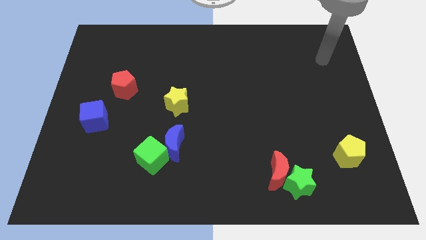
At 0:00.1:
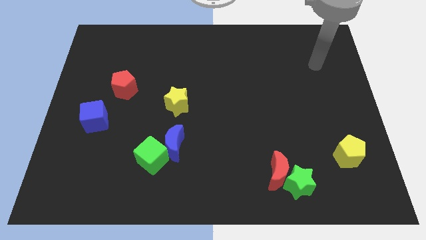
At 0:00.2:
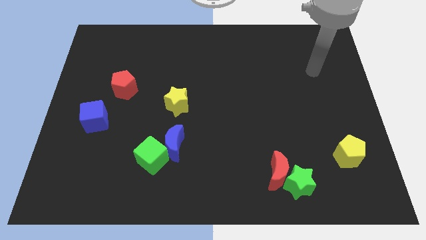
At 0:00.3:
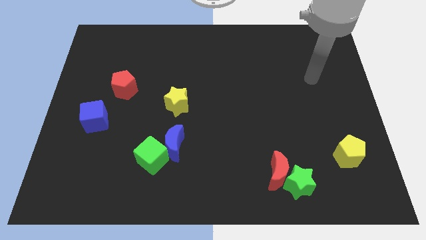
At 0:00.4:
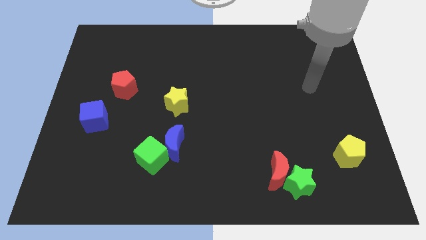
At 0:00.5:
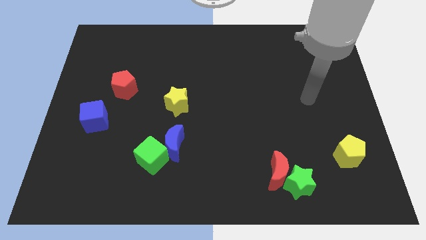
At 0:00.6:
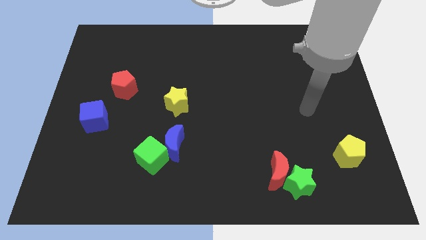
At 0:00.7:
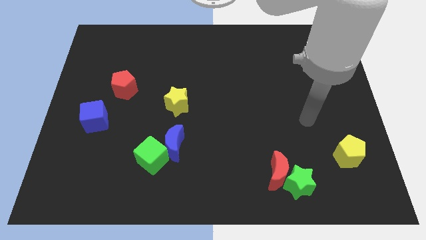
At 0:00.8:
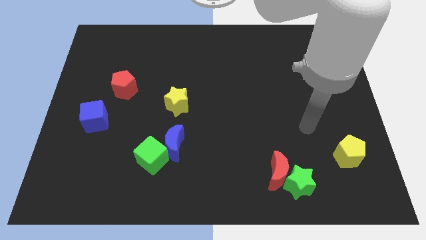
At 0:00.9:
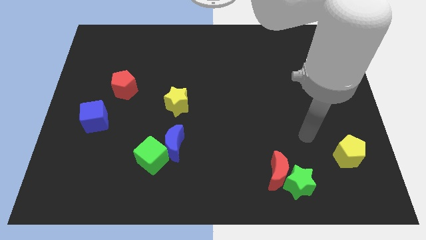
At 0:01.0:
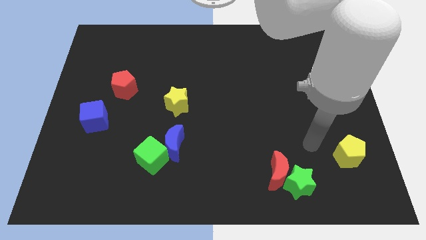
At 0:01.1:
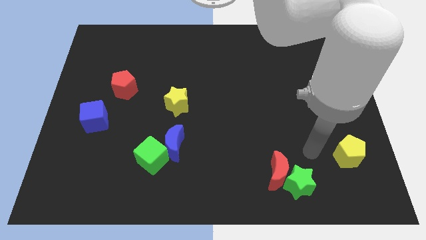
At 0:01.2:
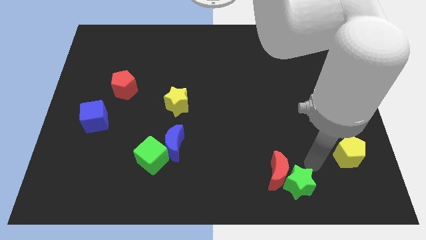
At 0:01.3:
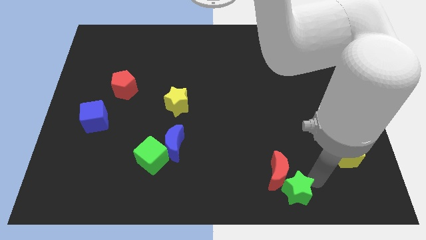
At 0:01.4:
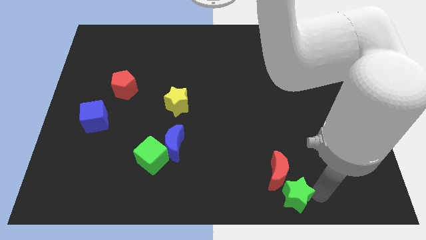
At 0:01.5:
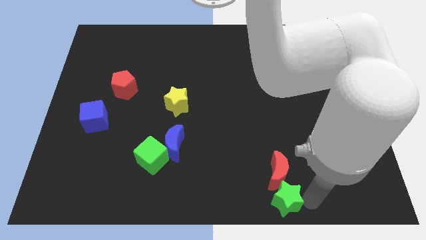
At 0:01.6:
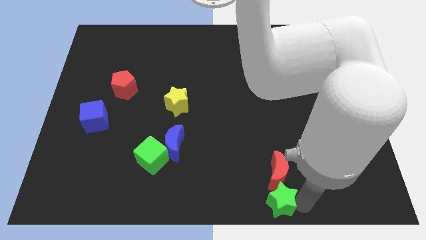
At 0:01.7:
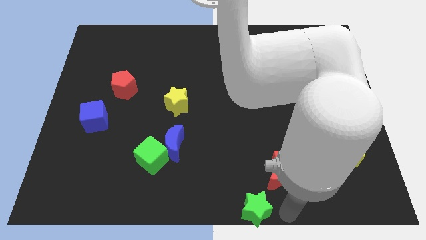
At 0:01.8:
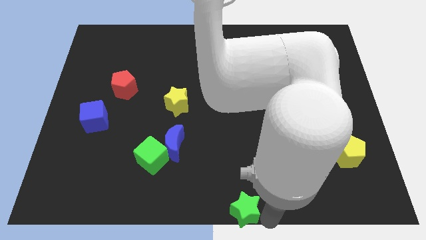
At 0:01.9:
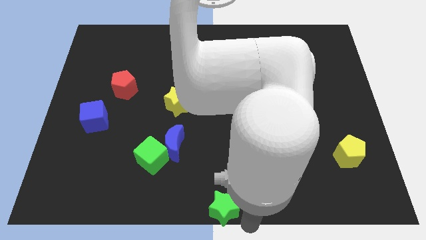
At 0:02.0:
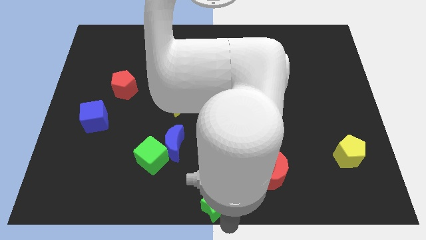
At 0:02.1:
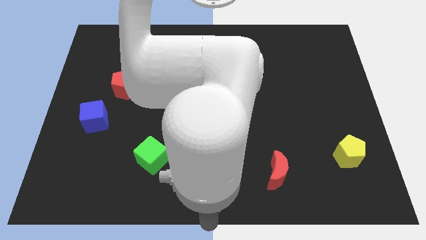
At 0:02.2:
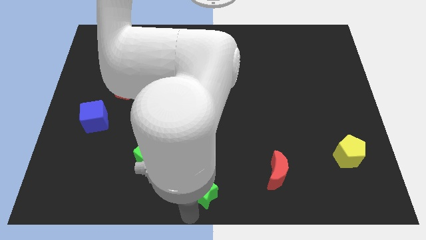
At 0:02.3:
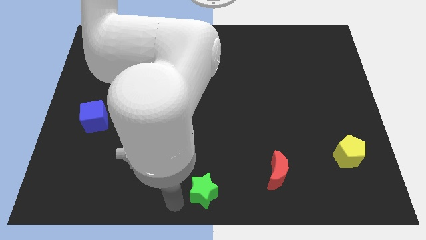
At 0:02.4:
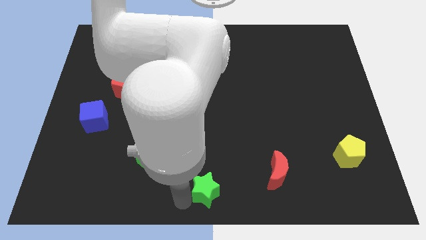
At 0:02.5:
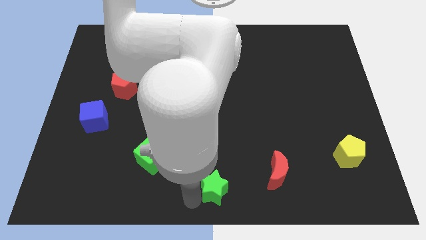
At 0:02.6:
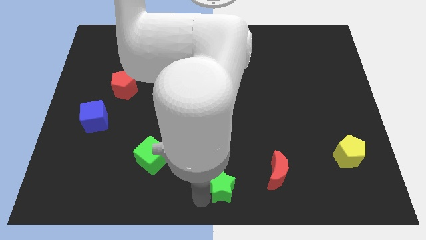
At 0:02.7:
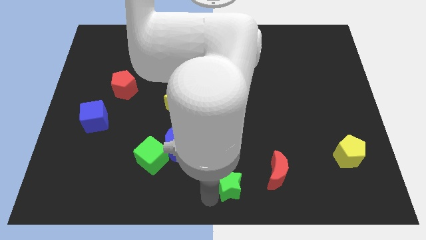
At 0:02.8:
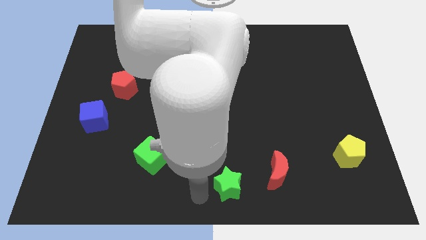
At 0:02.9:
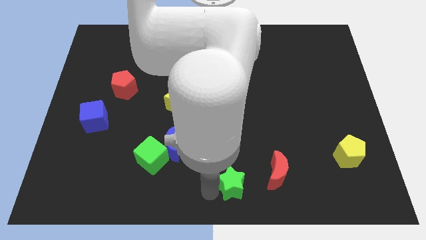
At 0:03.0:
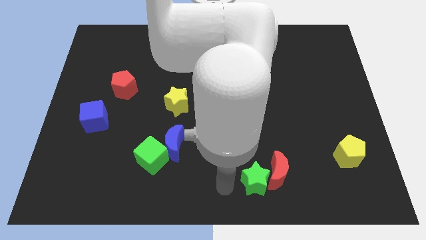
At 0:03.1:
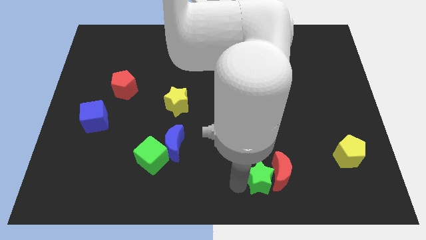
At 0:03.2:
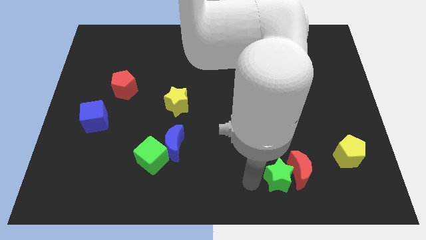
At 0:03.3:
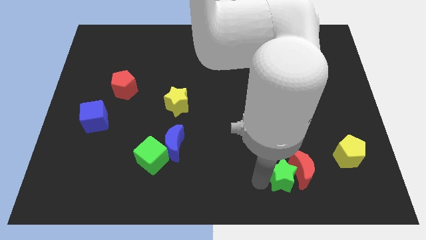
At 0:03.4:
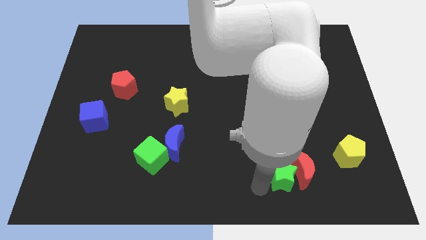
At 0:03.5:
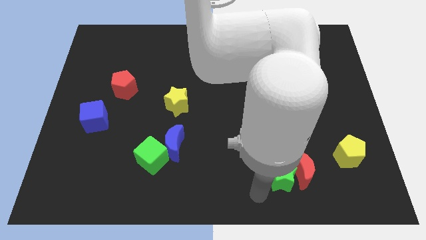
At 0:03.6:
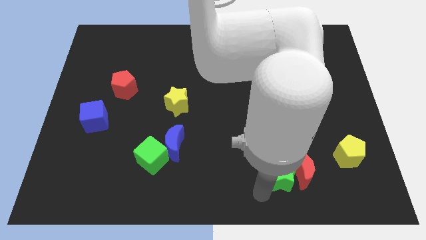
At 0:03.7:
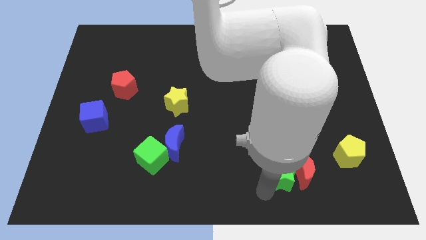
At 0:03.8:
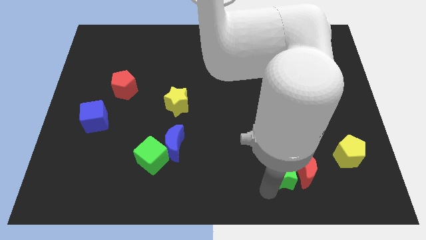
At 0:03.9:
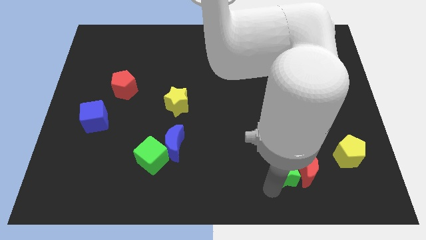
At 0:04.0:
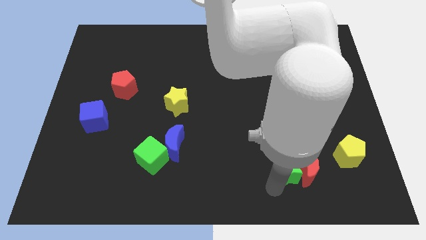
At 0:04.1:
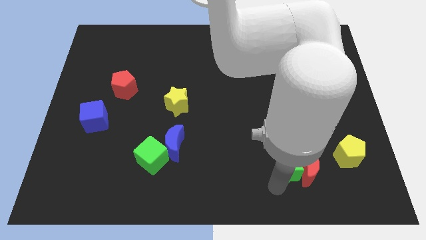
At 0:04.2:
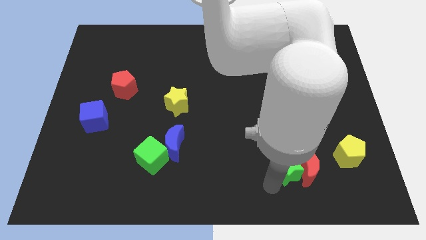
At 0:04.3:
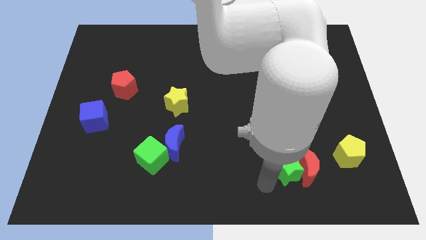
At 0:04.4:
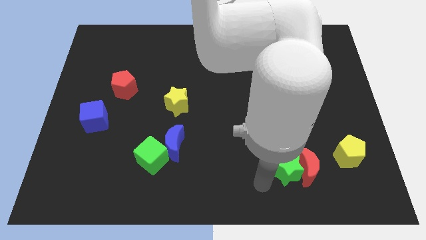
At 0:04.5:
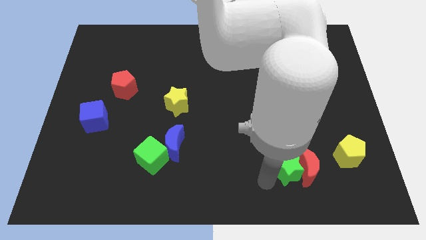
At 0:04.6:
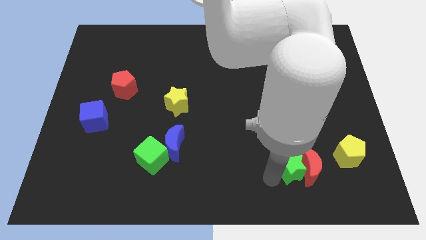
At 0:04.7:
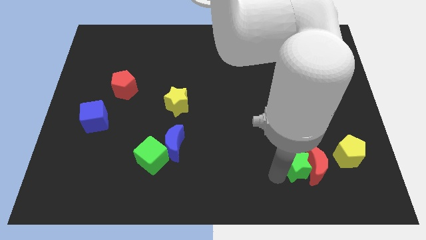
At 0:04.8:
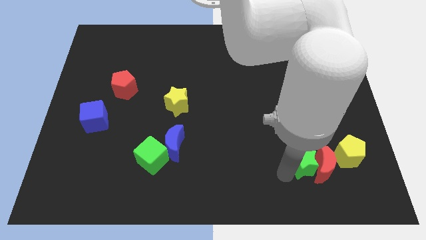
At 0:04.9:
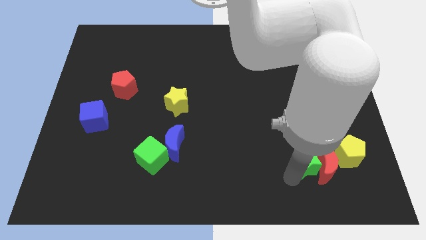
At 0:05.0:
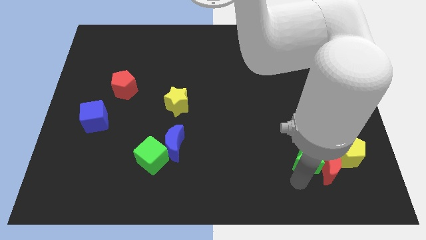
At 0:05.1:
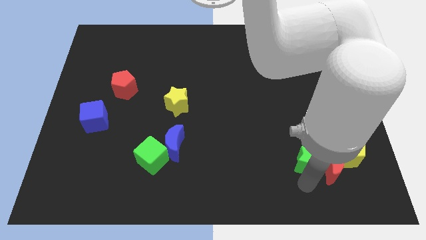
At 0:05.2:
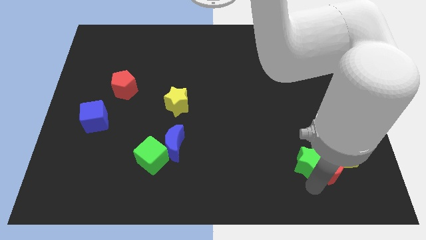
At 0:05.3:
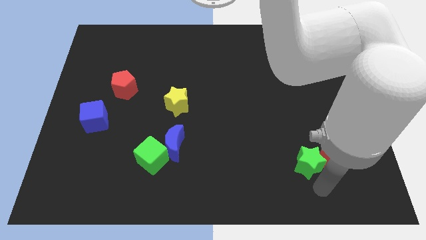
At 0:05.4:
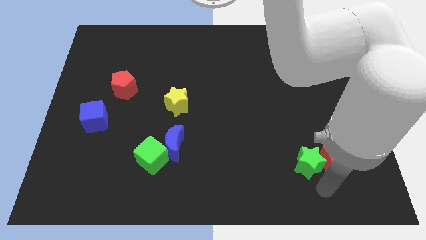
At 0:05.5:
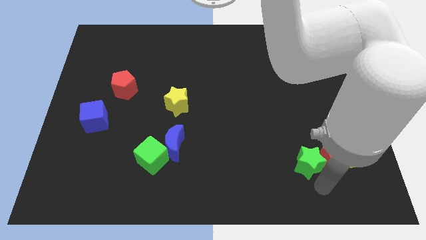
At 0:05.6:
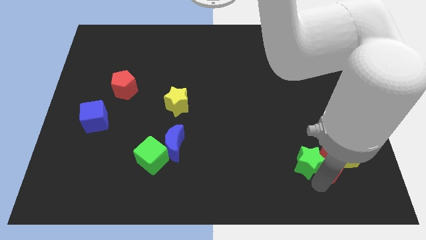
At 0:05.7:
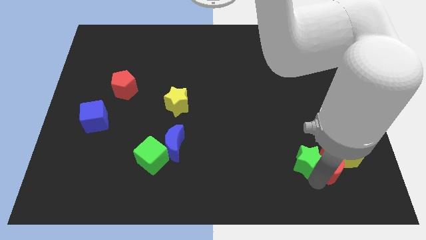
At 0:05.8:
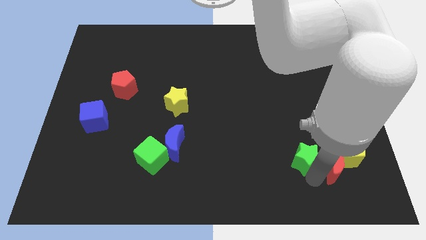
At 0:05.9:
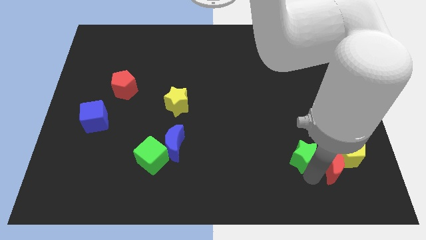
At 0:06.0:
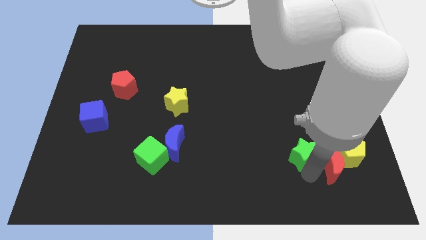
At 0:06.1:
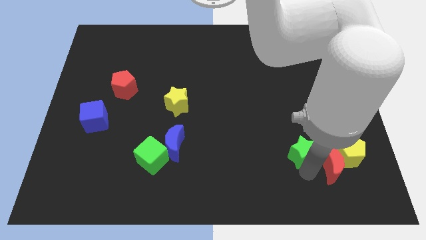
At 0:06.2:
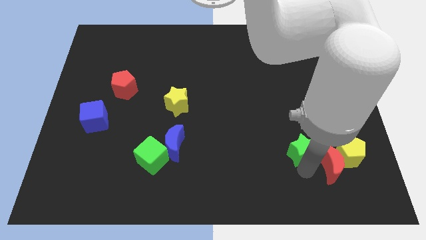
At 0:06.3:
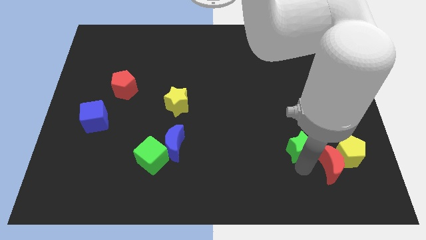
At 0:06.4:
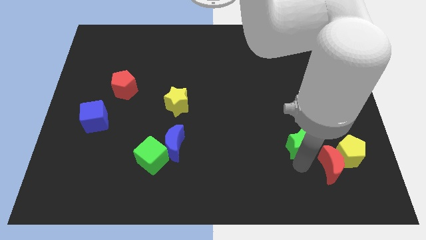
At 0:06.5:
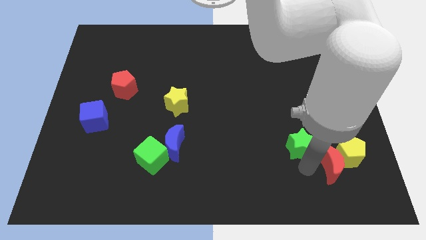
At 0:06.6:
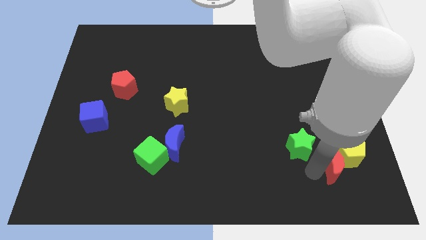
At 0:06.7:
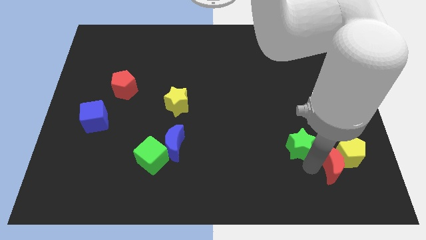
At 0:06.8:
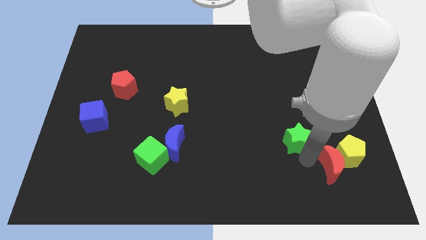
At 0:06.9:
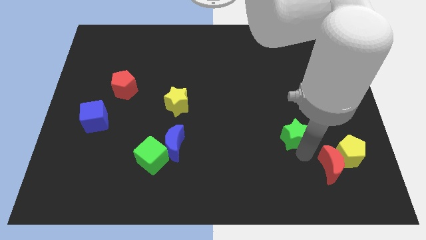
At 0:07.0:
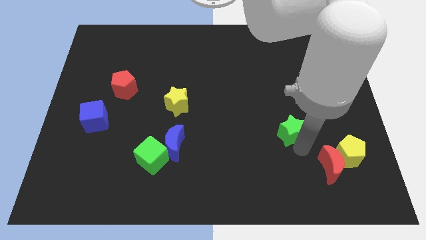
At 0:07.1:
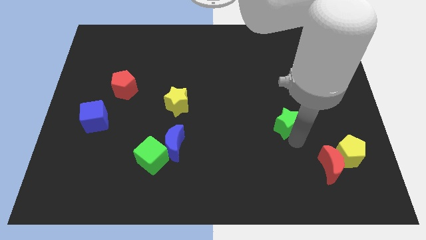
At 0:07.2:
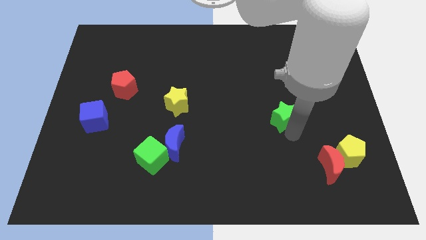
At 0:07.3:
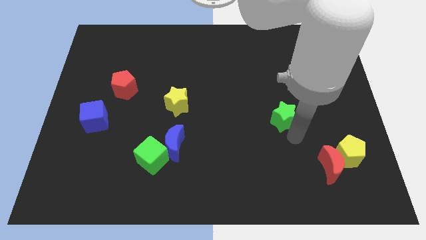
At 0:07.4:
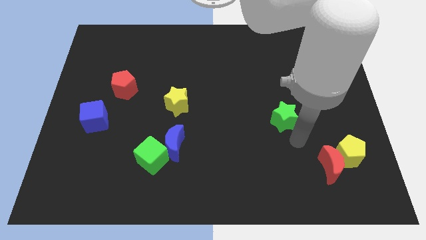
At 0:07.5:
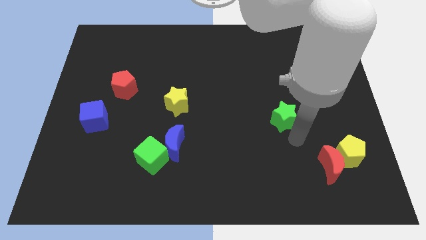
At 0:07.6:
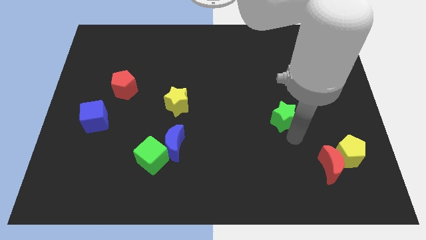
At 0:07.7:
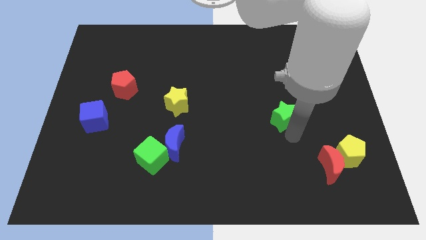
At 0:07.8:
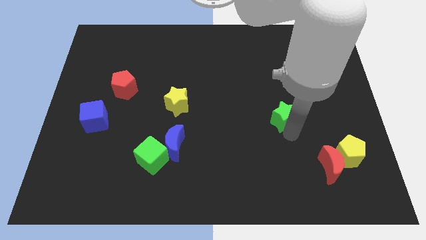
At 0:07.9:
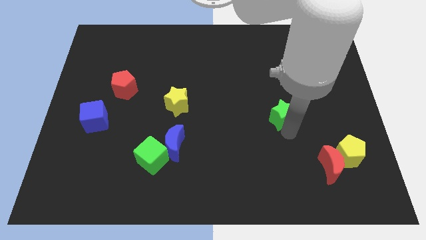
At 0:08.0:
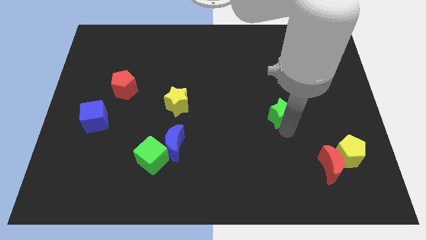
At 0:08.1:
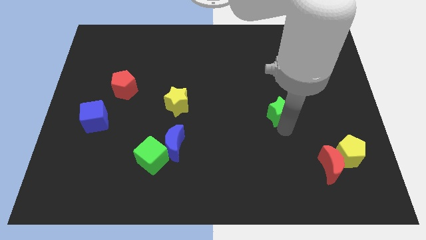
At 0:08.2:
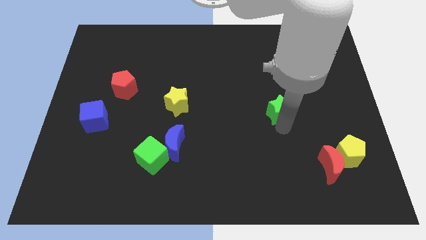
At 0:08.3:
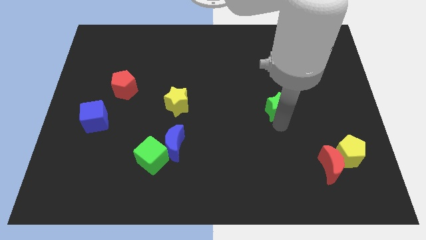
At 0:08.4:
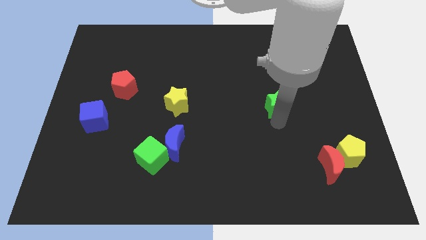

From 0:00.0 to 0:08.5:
move the green star up
